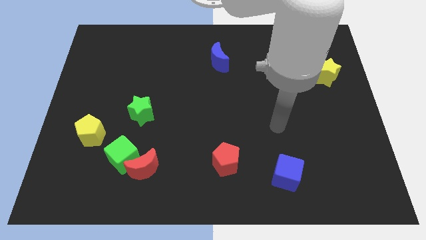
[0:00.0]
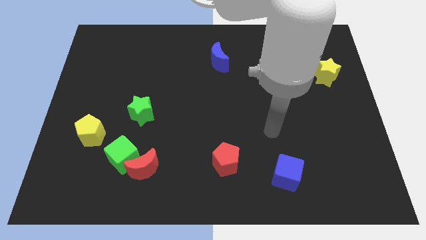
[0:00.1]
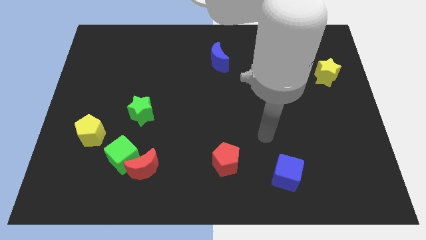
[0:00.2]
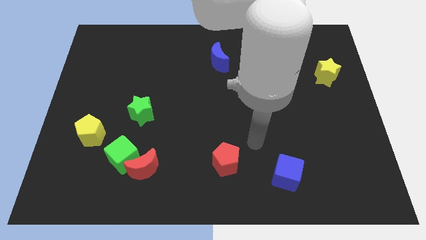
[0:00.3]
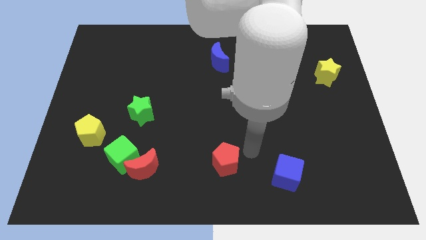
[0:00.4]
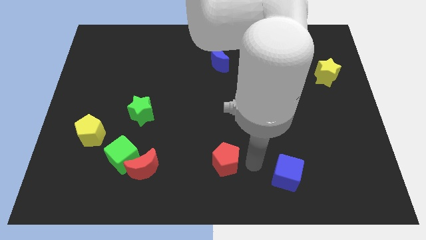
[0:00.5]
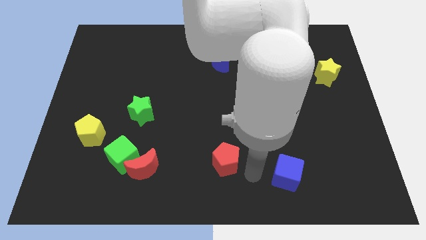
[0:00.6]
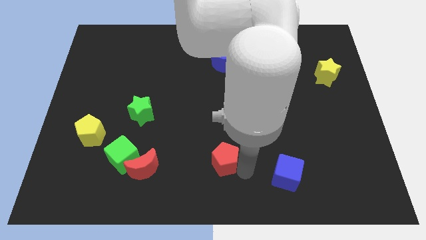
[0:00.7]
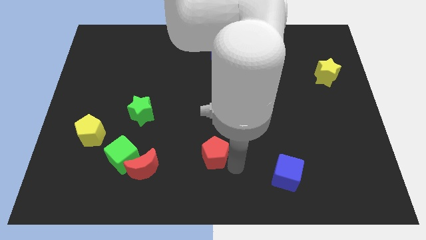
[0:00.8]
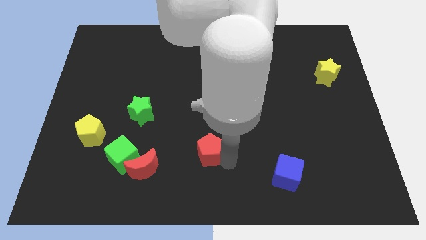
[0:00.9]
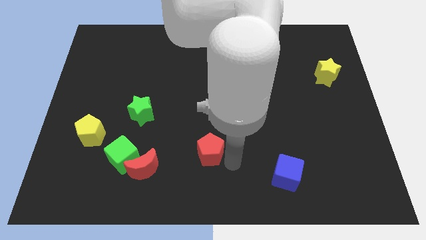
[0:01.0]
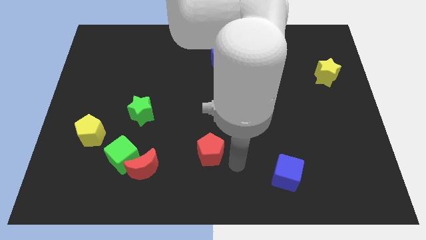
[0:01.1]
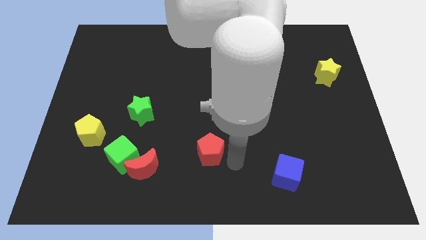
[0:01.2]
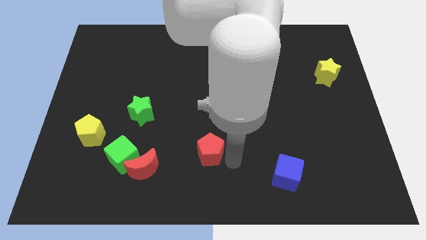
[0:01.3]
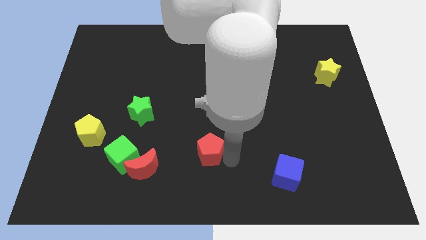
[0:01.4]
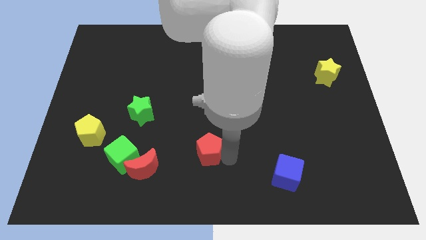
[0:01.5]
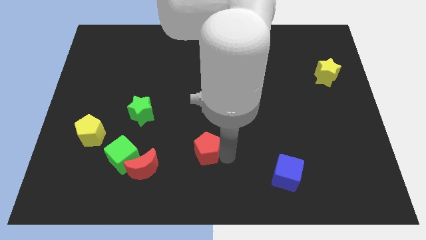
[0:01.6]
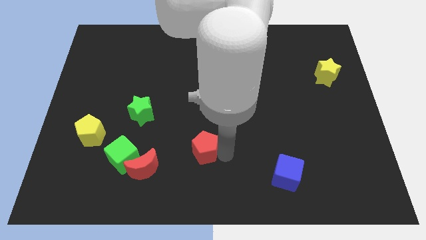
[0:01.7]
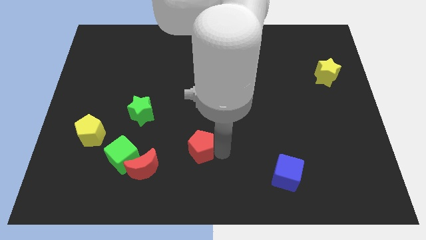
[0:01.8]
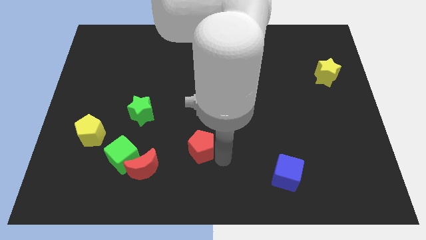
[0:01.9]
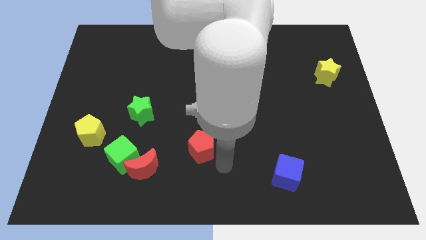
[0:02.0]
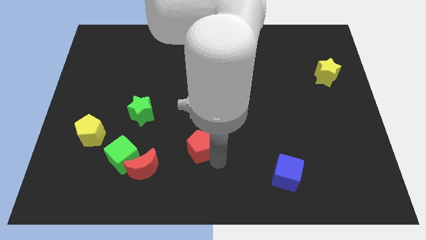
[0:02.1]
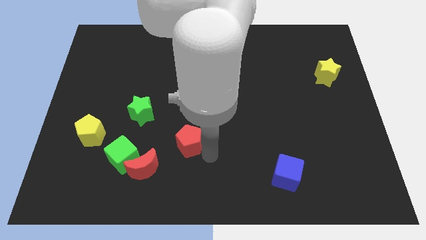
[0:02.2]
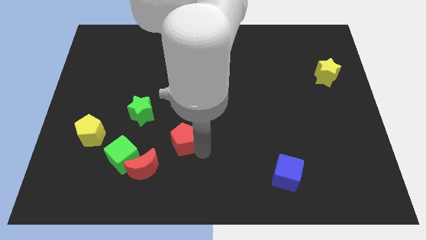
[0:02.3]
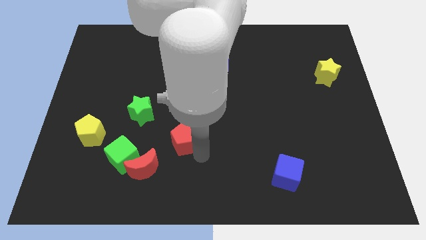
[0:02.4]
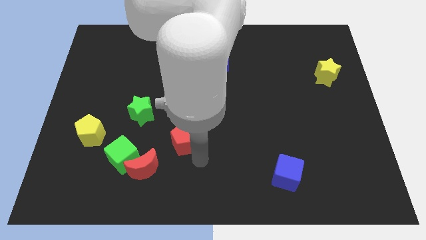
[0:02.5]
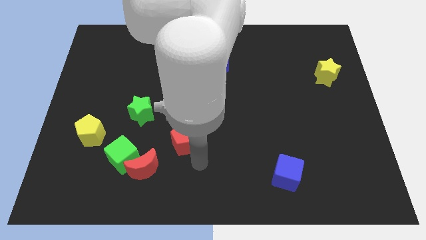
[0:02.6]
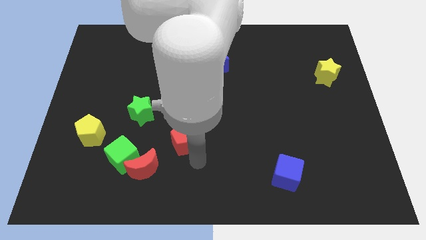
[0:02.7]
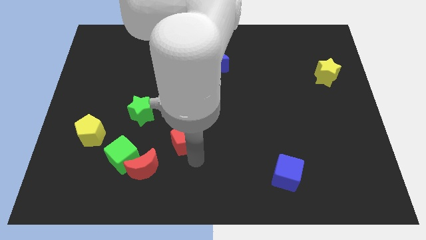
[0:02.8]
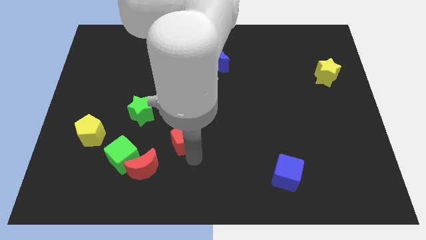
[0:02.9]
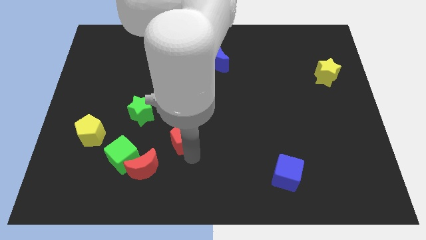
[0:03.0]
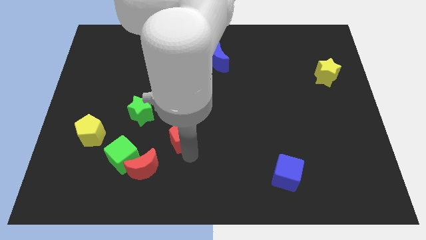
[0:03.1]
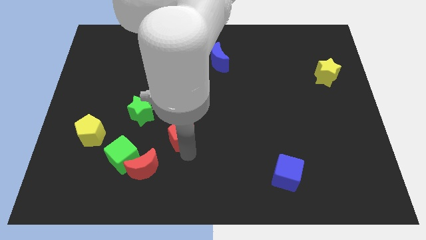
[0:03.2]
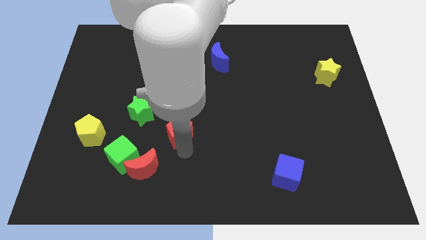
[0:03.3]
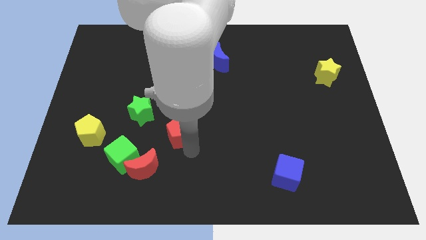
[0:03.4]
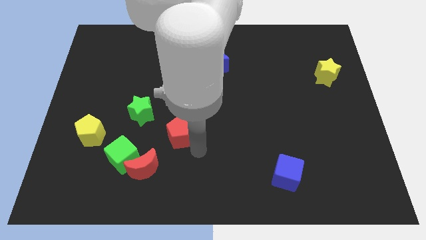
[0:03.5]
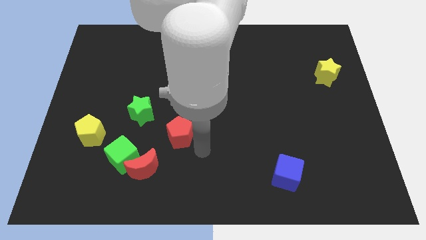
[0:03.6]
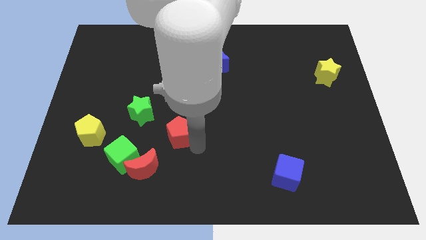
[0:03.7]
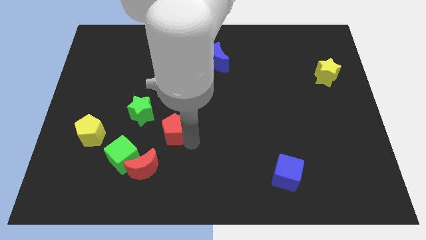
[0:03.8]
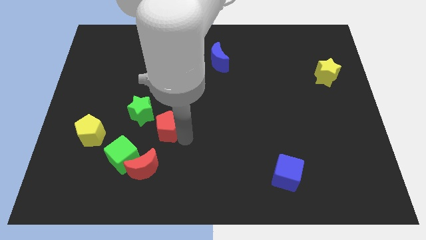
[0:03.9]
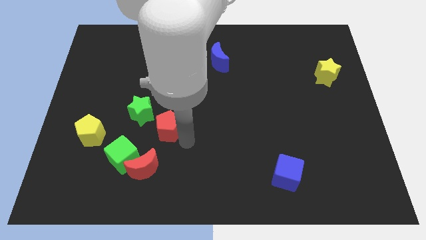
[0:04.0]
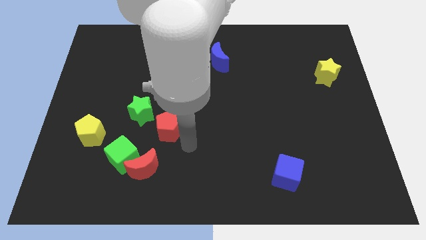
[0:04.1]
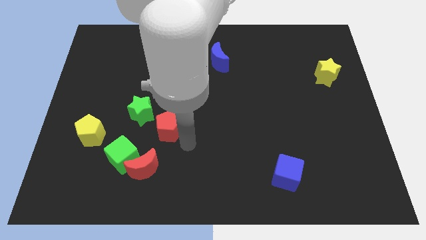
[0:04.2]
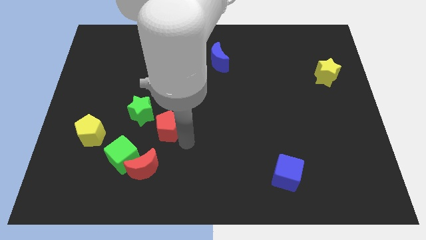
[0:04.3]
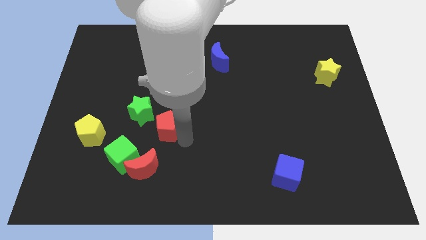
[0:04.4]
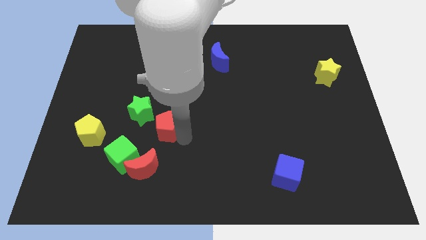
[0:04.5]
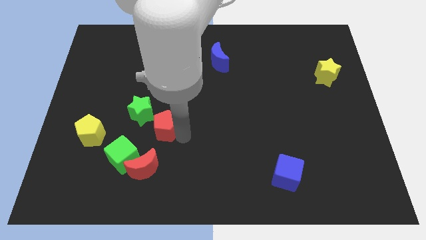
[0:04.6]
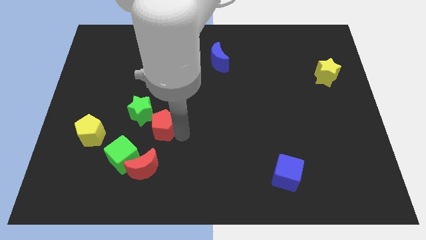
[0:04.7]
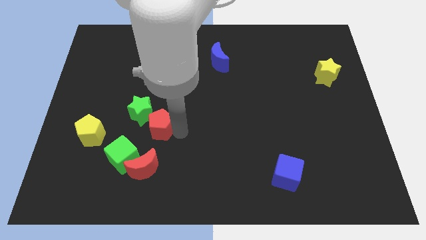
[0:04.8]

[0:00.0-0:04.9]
push the red pentagon to the green star

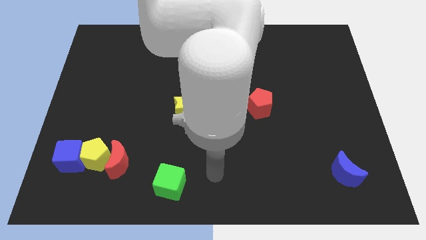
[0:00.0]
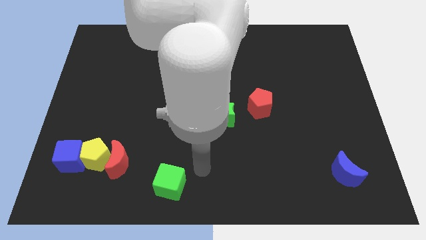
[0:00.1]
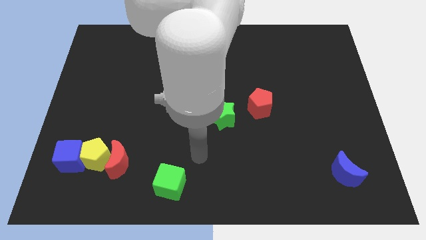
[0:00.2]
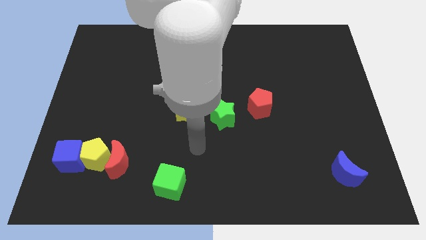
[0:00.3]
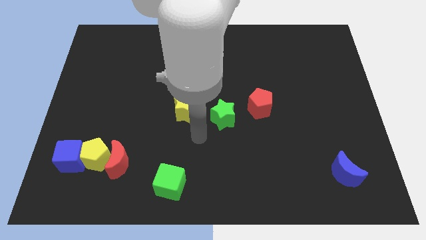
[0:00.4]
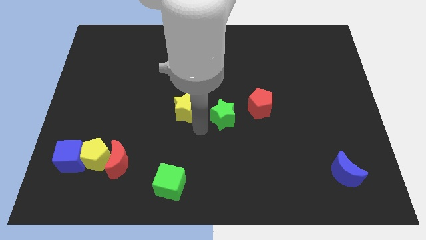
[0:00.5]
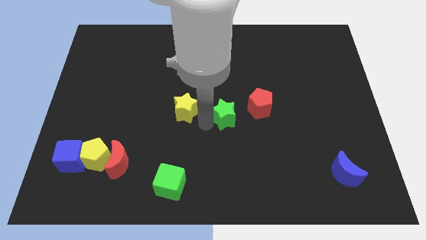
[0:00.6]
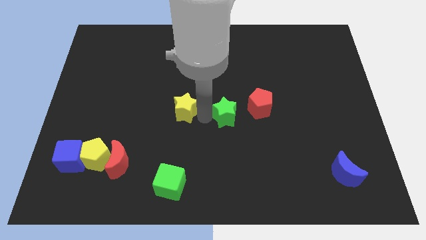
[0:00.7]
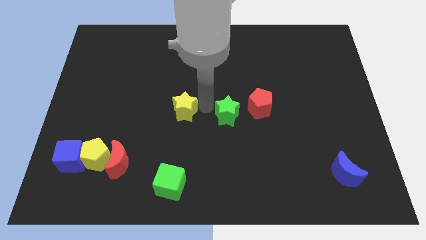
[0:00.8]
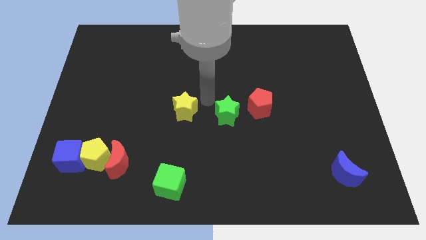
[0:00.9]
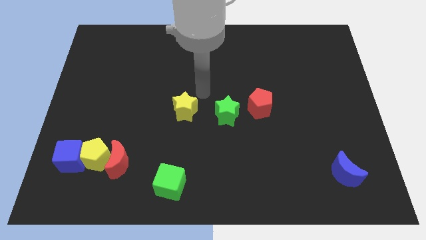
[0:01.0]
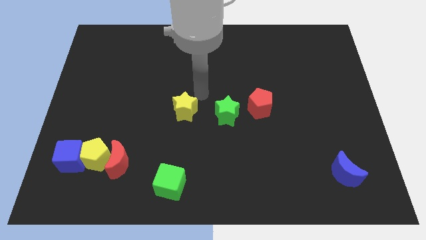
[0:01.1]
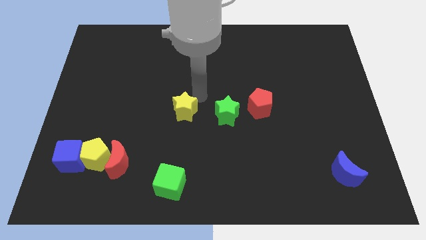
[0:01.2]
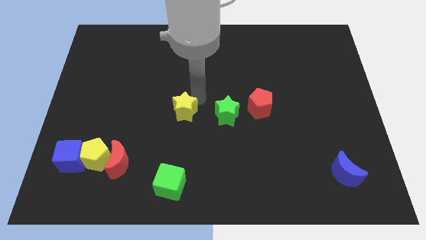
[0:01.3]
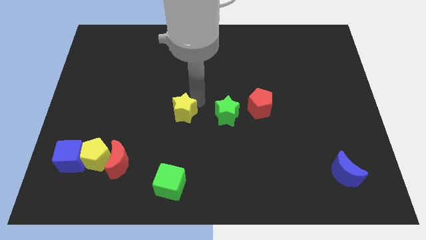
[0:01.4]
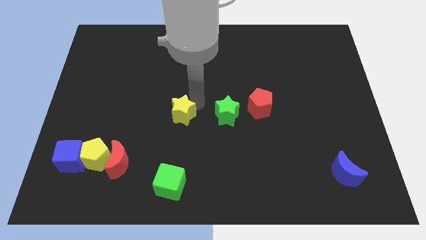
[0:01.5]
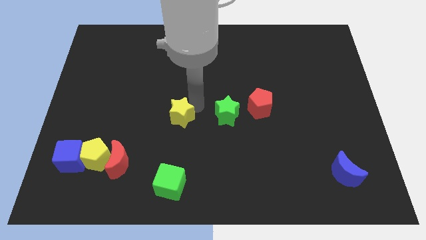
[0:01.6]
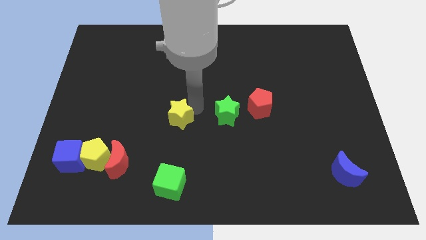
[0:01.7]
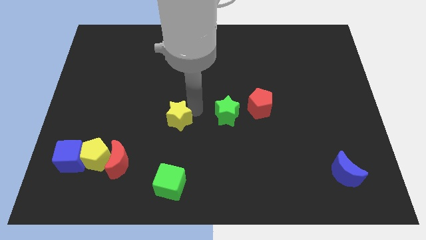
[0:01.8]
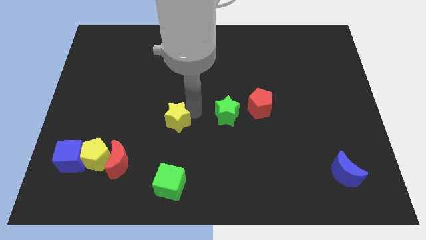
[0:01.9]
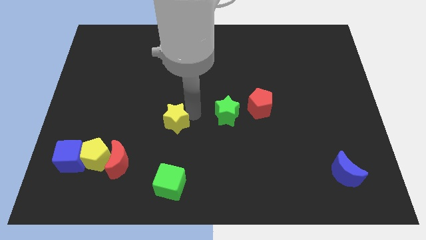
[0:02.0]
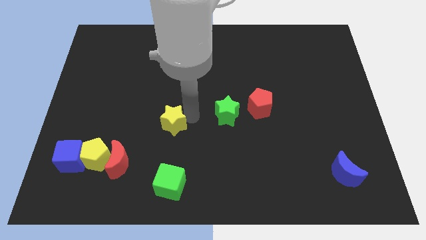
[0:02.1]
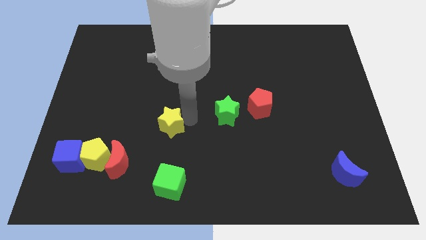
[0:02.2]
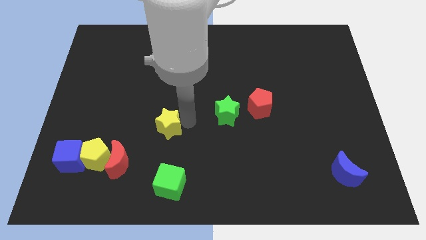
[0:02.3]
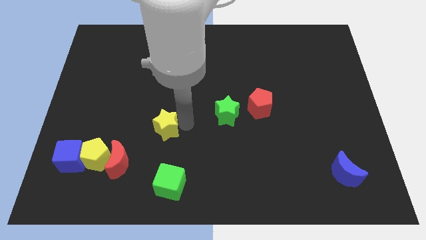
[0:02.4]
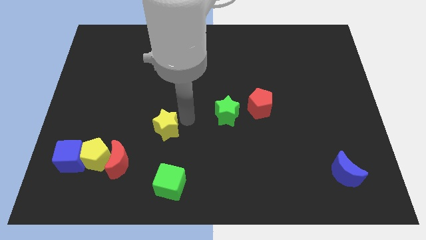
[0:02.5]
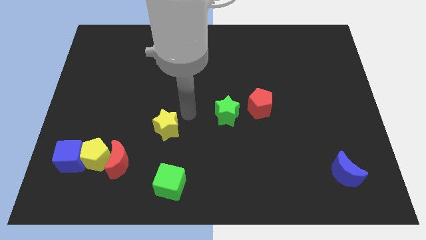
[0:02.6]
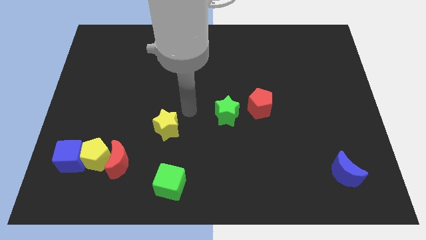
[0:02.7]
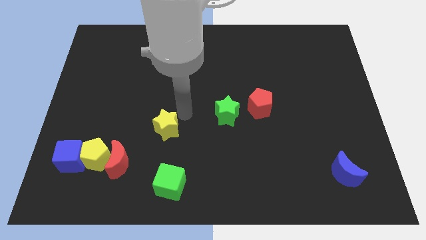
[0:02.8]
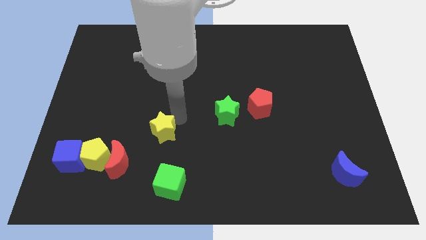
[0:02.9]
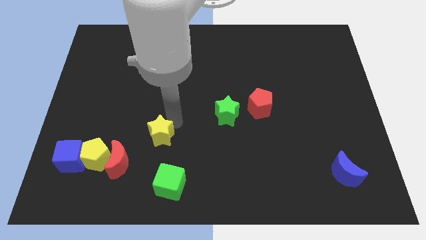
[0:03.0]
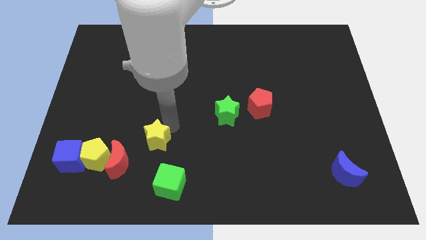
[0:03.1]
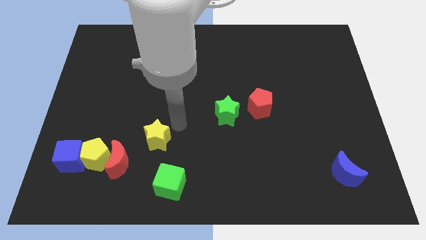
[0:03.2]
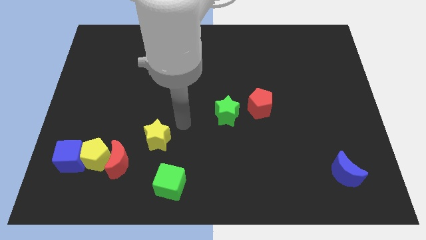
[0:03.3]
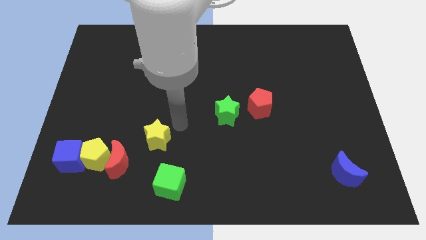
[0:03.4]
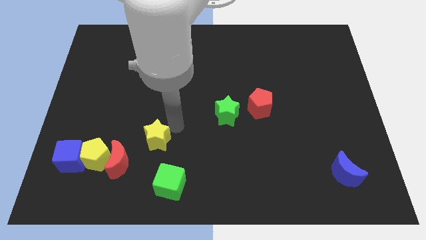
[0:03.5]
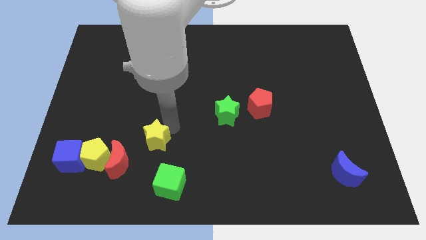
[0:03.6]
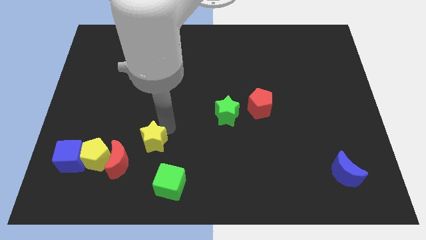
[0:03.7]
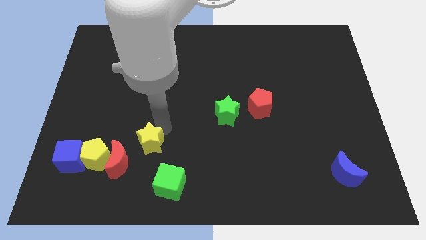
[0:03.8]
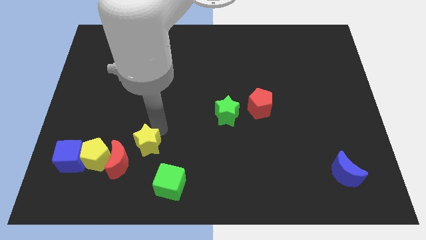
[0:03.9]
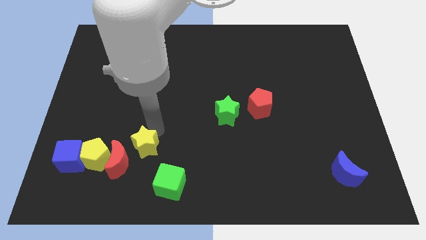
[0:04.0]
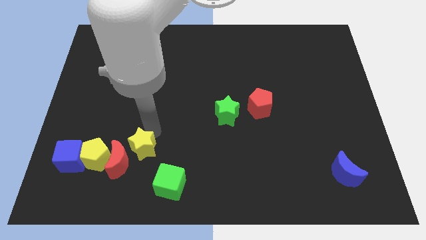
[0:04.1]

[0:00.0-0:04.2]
move the yellow star to the red moon
